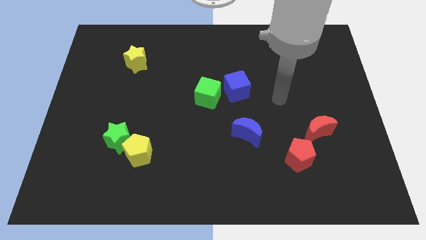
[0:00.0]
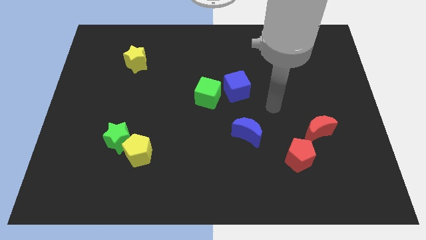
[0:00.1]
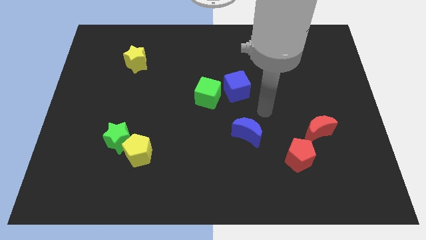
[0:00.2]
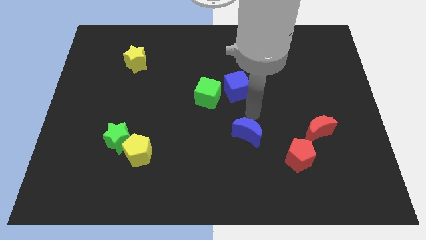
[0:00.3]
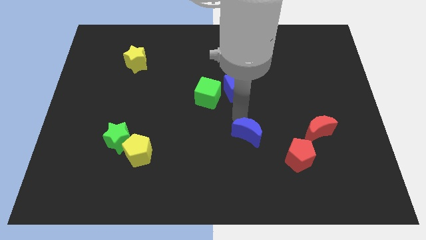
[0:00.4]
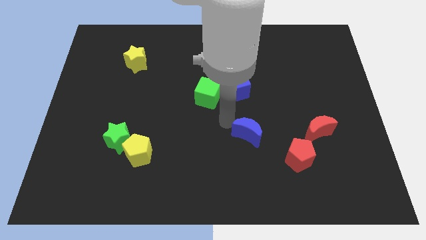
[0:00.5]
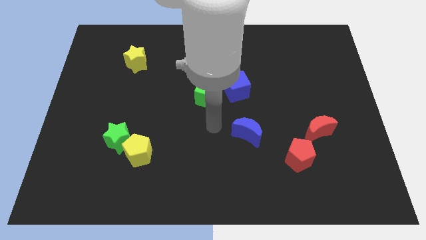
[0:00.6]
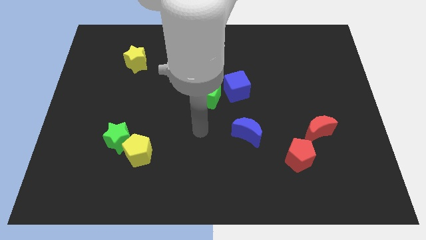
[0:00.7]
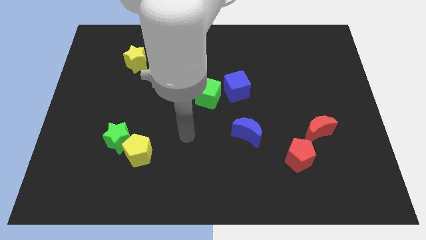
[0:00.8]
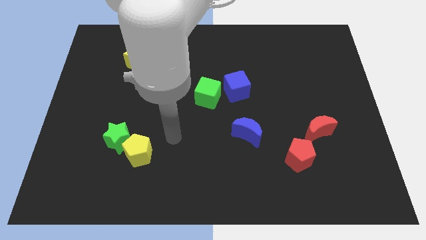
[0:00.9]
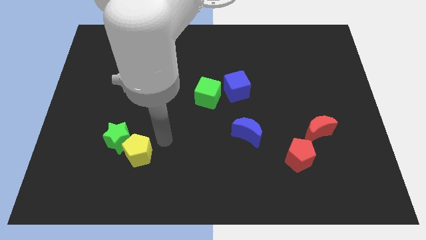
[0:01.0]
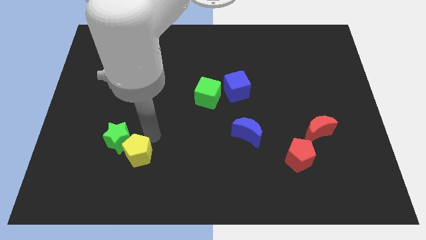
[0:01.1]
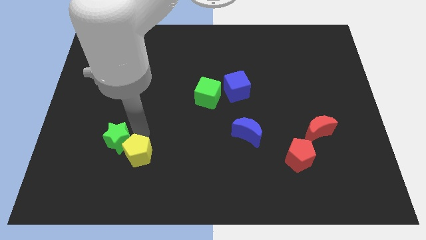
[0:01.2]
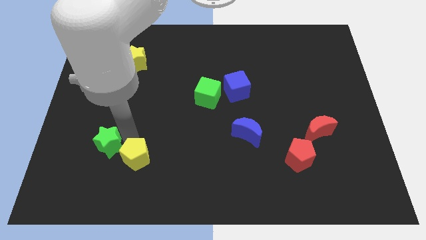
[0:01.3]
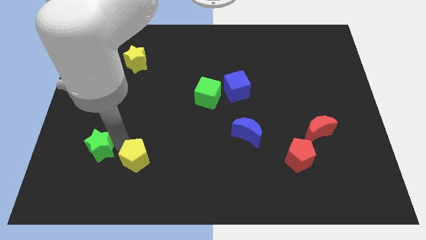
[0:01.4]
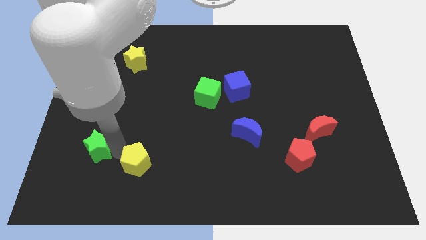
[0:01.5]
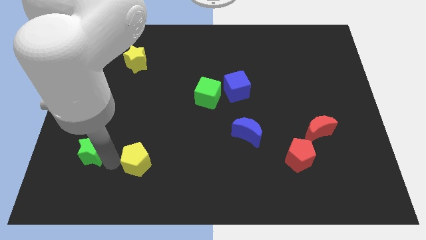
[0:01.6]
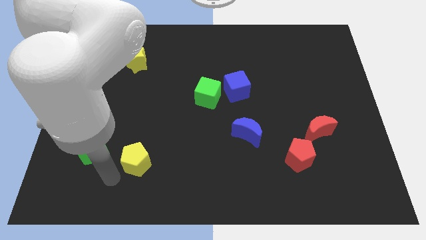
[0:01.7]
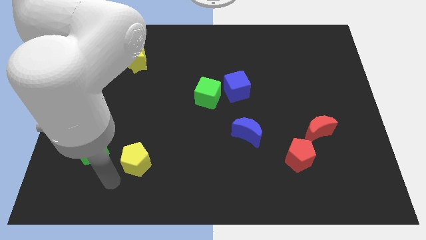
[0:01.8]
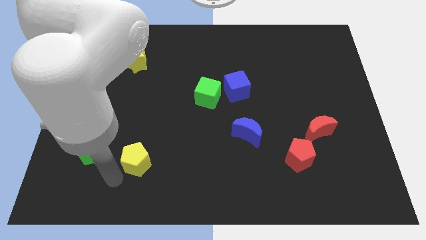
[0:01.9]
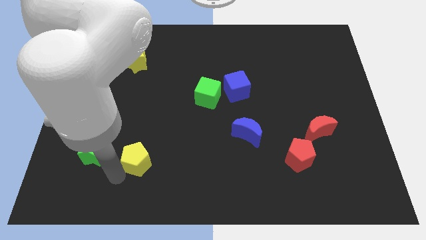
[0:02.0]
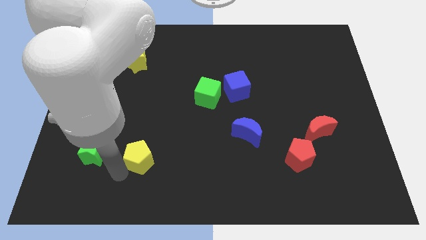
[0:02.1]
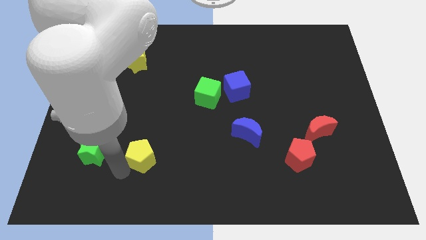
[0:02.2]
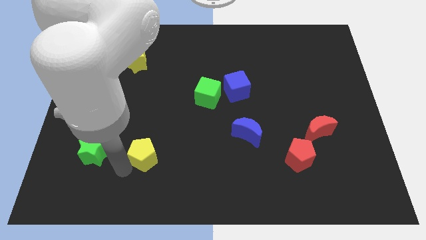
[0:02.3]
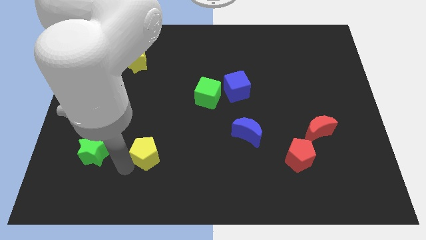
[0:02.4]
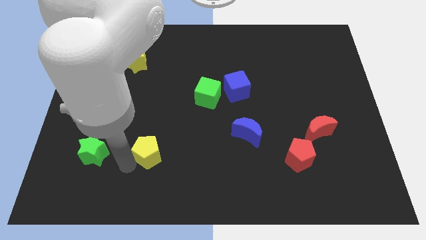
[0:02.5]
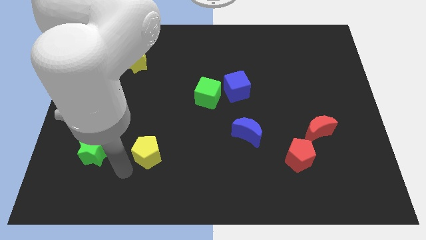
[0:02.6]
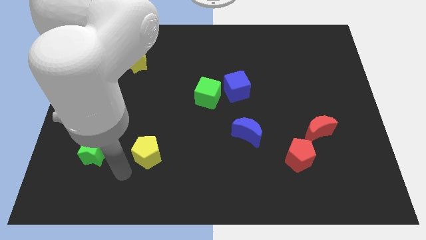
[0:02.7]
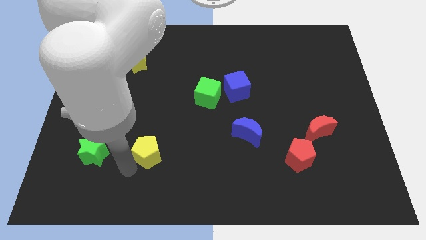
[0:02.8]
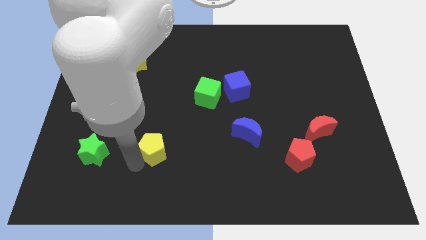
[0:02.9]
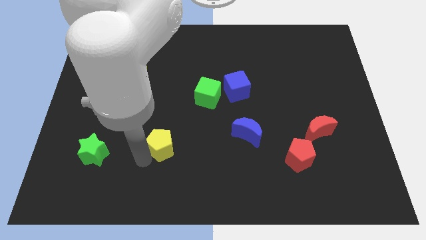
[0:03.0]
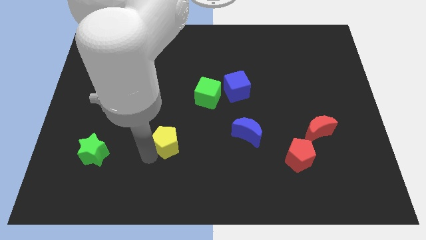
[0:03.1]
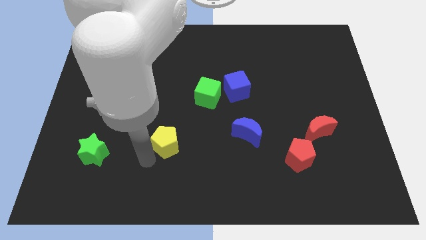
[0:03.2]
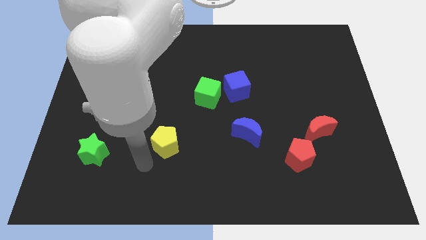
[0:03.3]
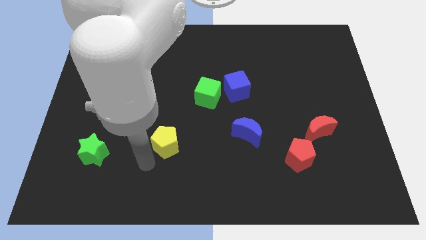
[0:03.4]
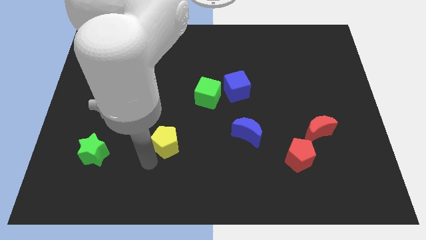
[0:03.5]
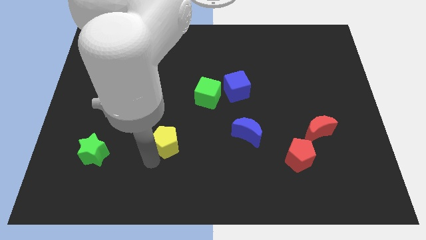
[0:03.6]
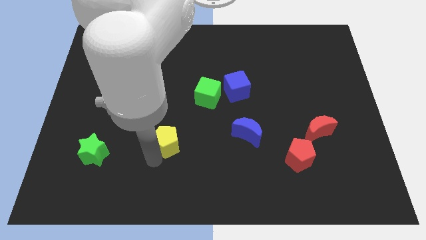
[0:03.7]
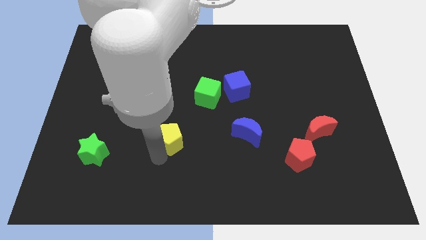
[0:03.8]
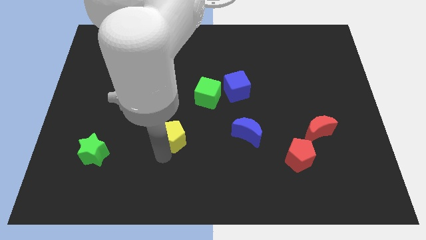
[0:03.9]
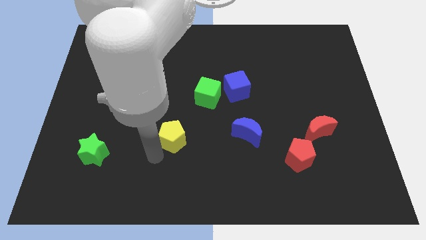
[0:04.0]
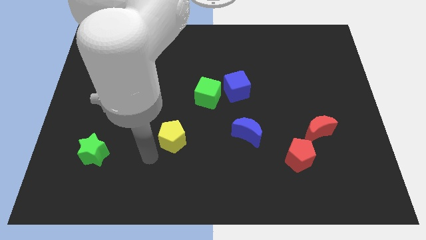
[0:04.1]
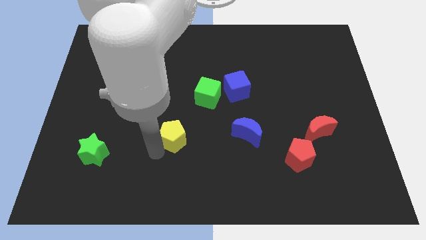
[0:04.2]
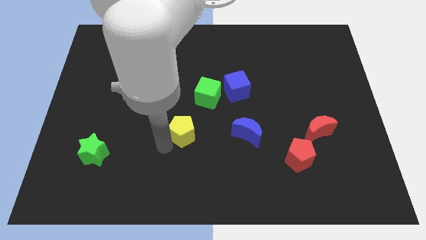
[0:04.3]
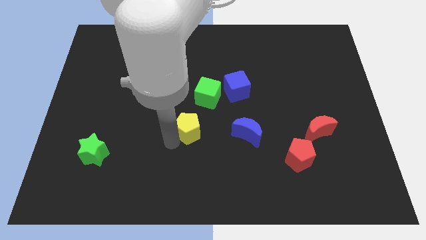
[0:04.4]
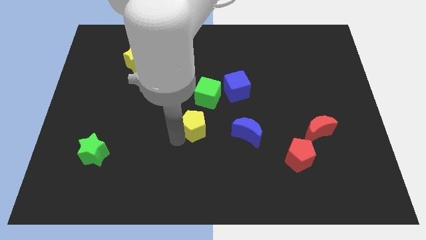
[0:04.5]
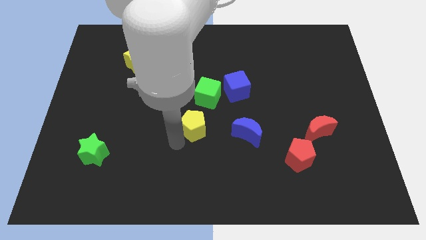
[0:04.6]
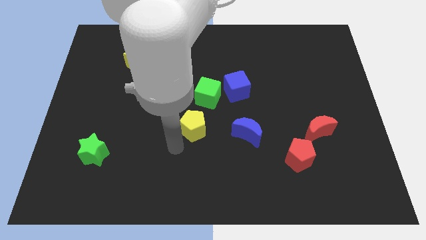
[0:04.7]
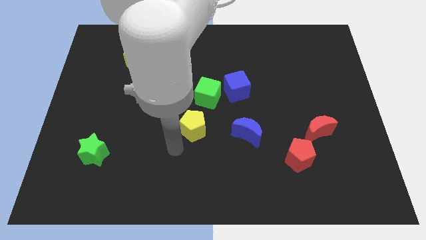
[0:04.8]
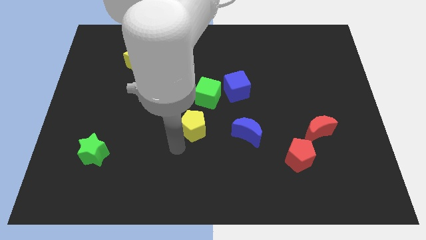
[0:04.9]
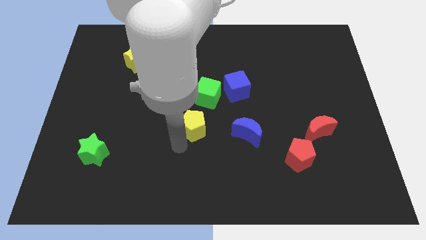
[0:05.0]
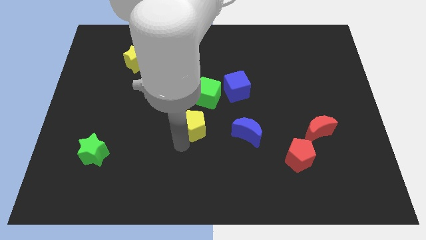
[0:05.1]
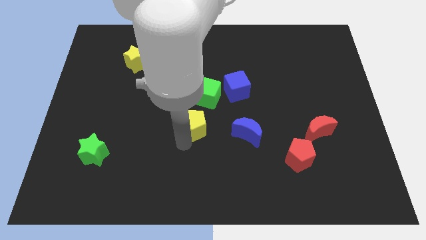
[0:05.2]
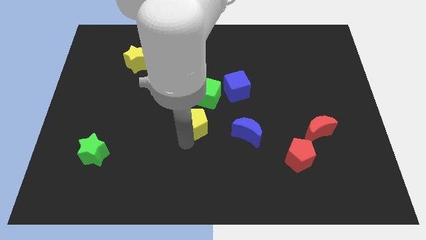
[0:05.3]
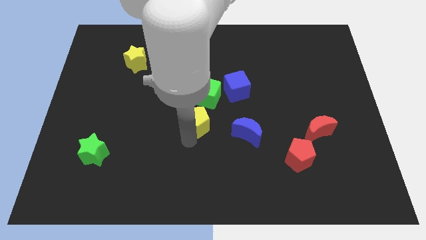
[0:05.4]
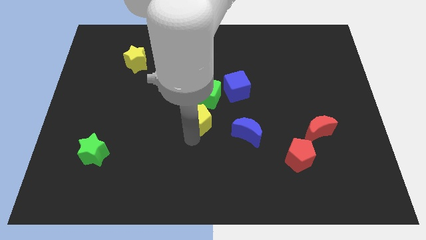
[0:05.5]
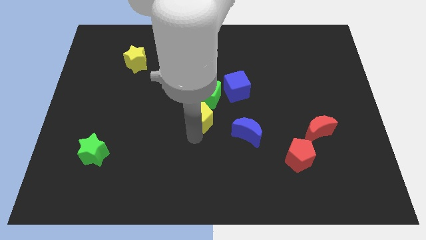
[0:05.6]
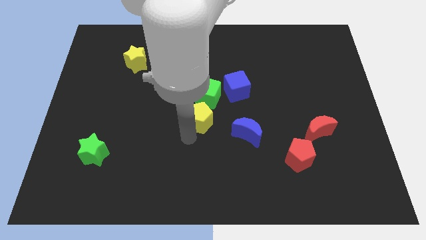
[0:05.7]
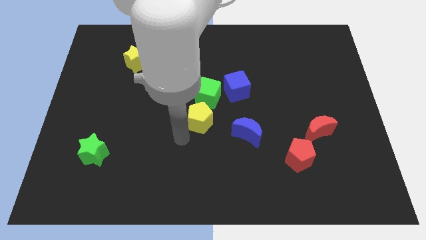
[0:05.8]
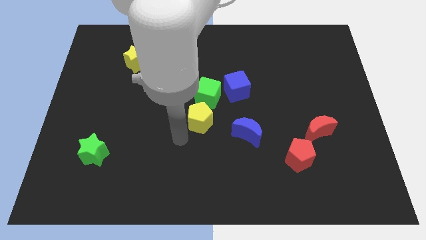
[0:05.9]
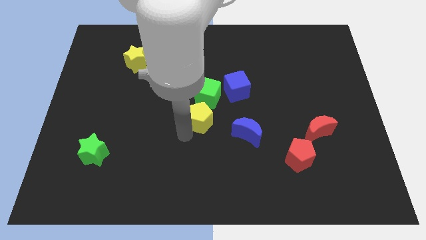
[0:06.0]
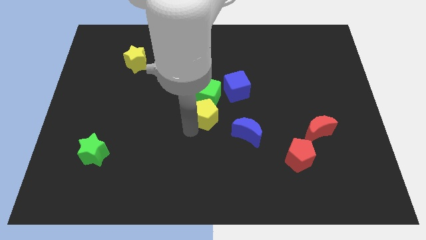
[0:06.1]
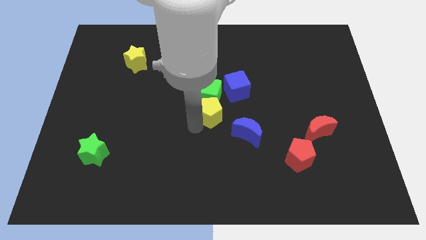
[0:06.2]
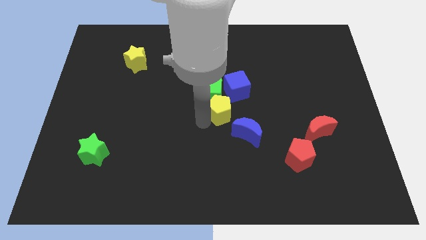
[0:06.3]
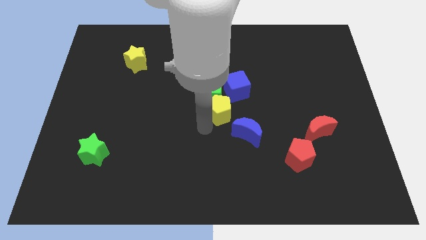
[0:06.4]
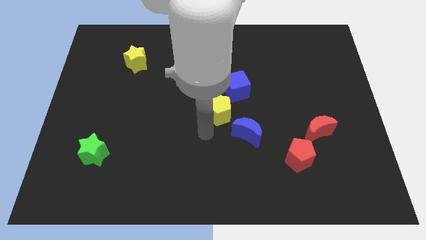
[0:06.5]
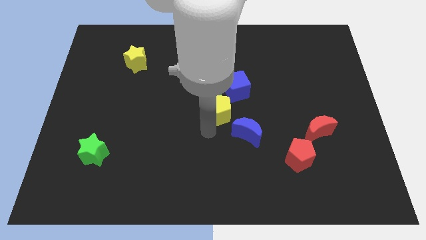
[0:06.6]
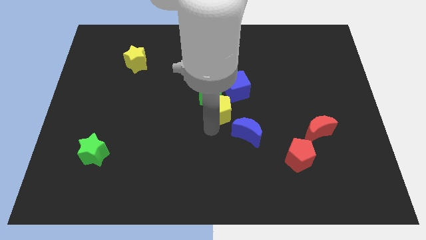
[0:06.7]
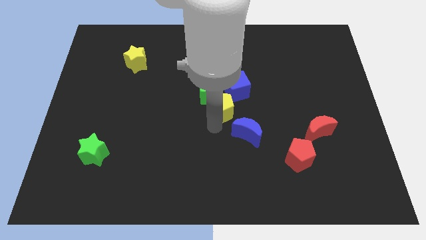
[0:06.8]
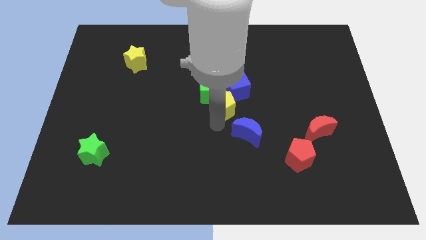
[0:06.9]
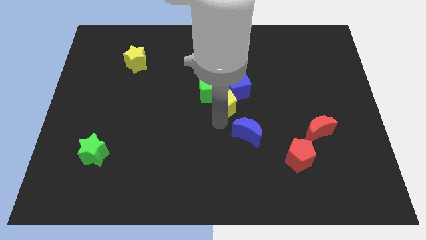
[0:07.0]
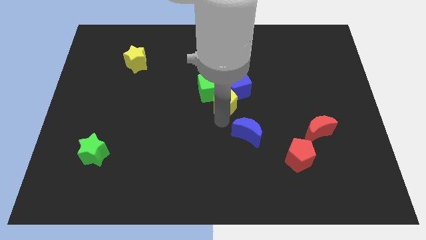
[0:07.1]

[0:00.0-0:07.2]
move the yellow pentagon next to the blue cube
